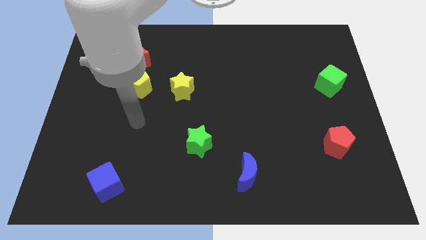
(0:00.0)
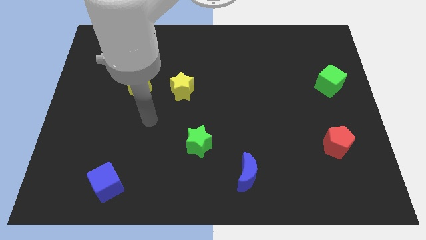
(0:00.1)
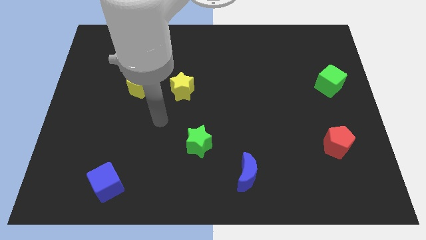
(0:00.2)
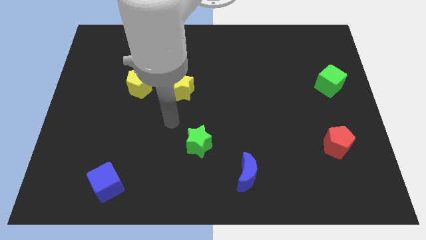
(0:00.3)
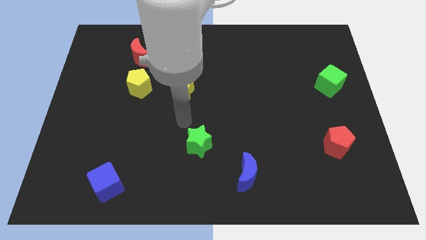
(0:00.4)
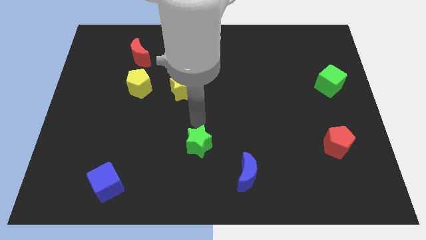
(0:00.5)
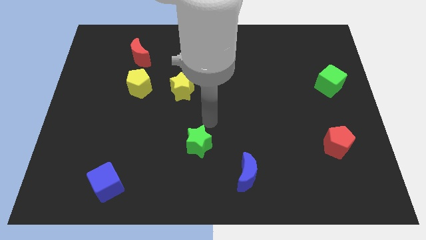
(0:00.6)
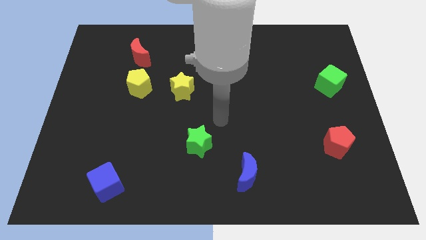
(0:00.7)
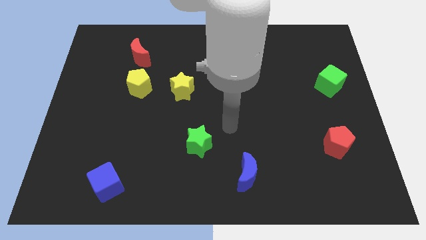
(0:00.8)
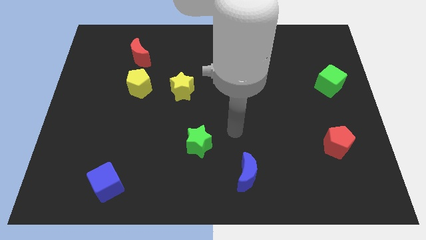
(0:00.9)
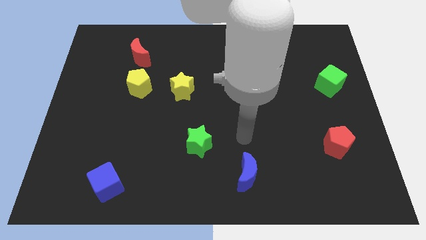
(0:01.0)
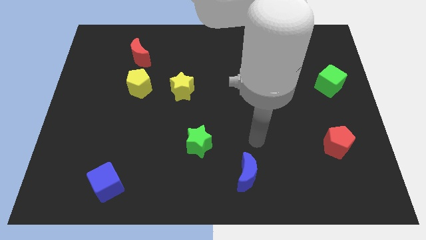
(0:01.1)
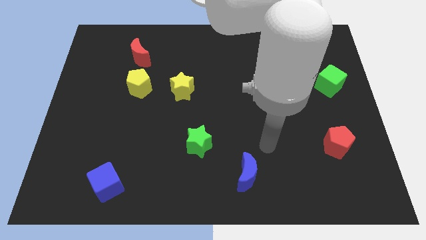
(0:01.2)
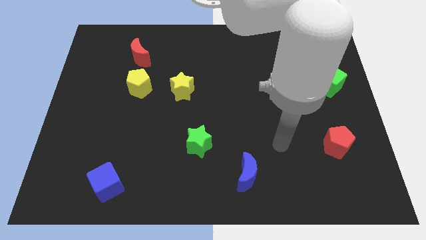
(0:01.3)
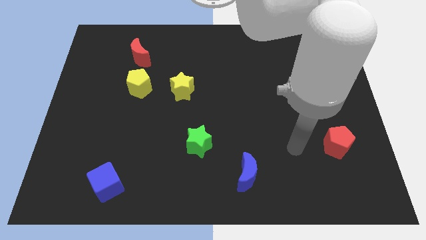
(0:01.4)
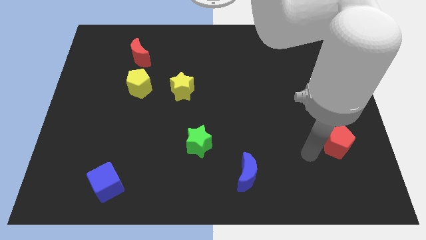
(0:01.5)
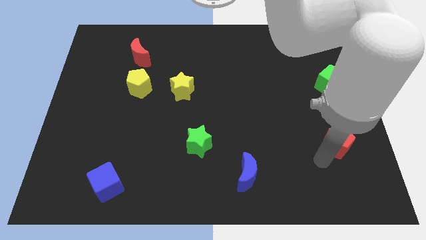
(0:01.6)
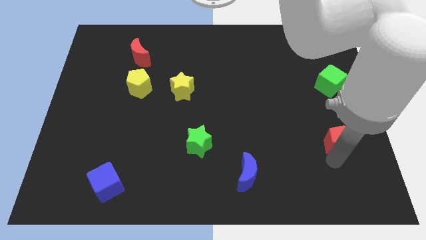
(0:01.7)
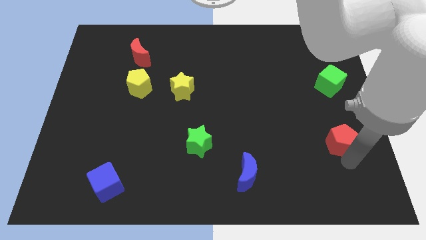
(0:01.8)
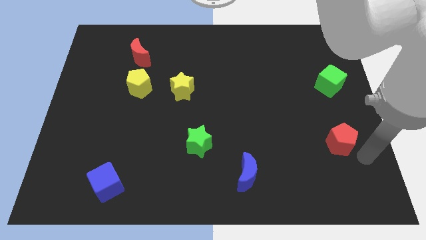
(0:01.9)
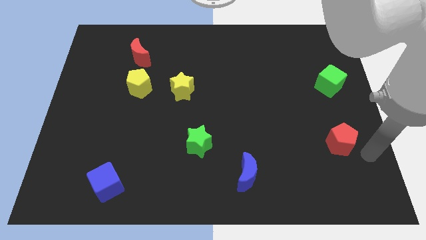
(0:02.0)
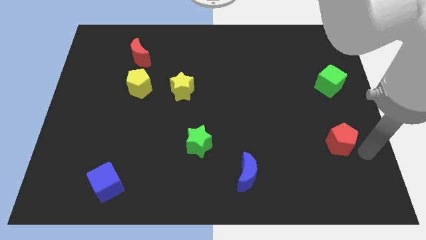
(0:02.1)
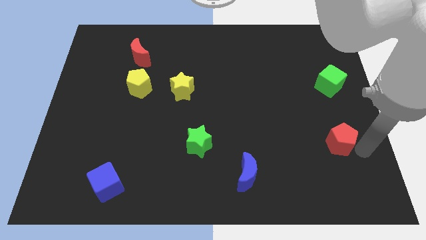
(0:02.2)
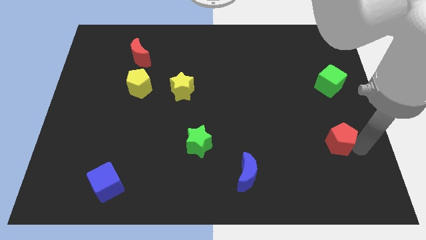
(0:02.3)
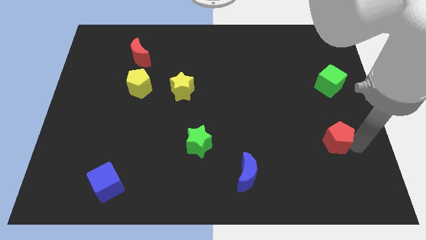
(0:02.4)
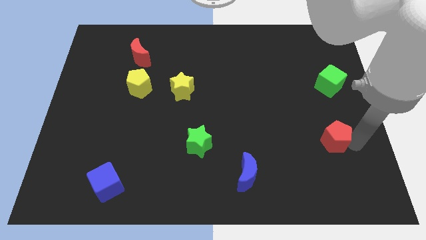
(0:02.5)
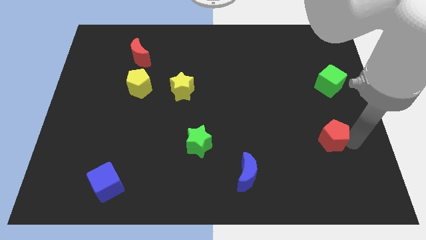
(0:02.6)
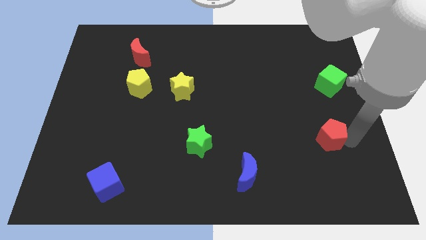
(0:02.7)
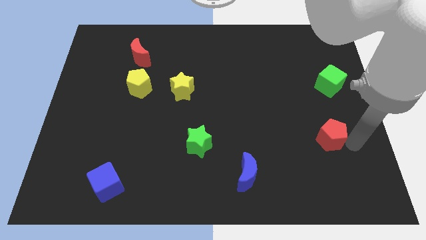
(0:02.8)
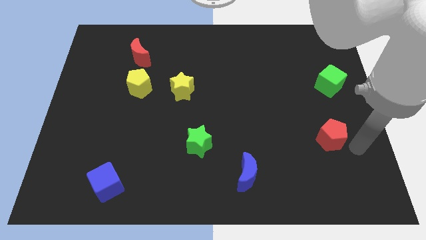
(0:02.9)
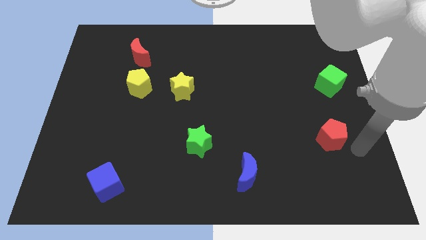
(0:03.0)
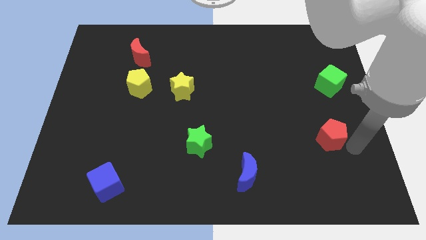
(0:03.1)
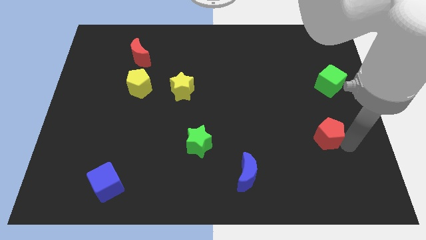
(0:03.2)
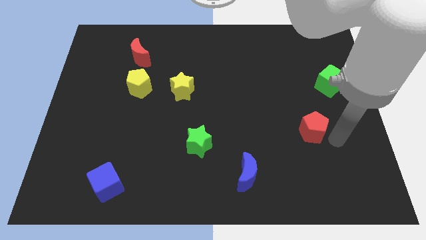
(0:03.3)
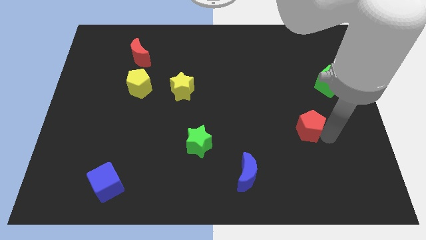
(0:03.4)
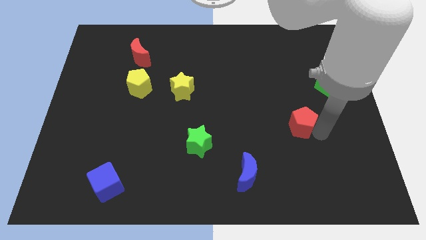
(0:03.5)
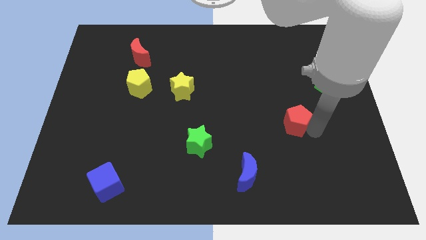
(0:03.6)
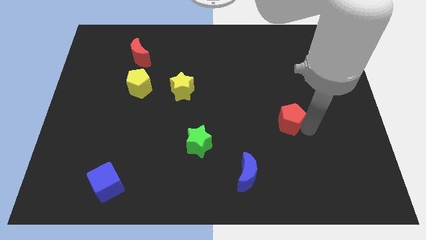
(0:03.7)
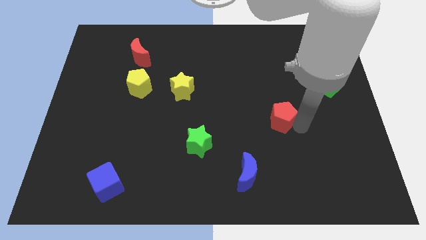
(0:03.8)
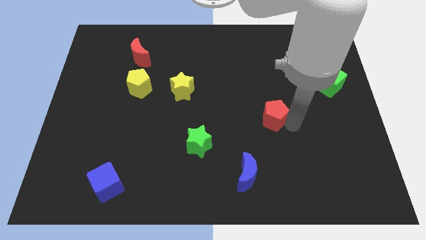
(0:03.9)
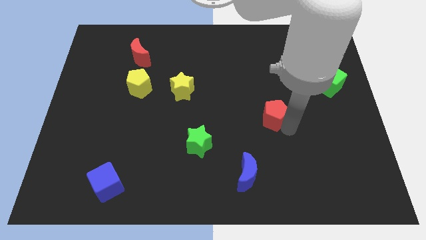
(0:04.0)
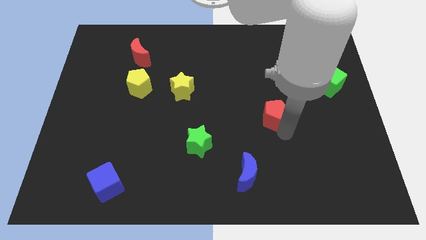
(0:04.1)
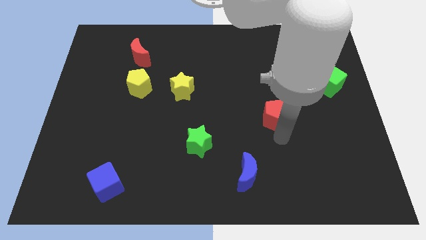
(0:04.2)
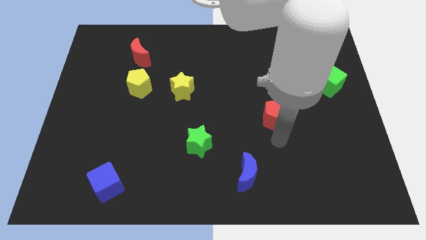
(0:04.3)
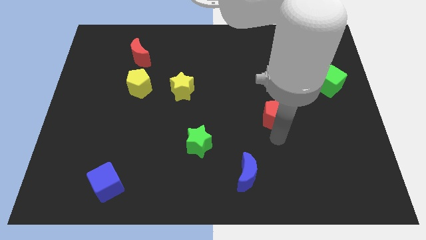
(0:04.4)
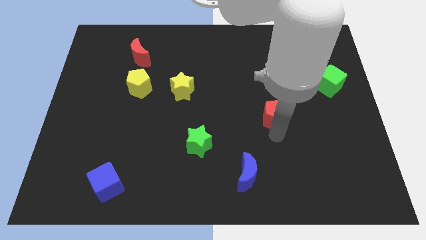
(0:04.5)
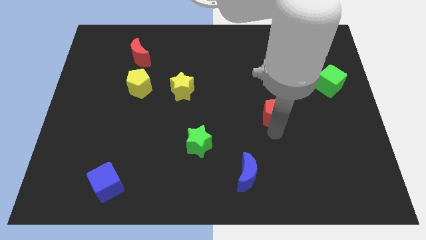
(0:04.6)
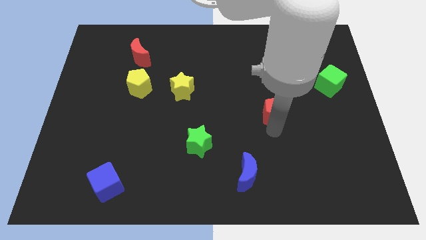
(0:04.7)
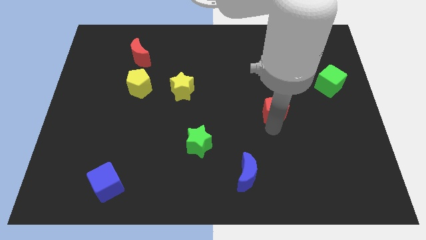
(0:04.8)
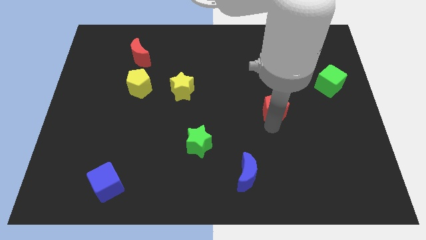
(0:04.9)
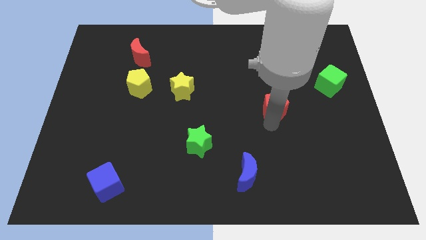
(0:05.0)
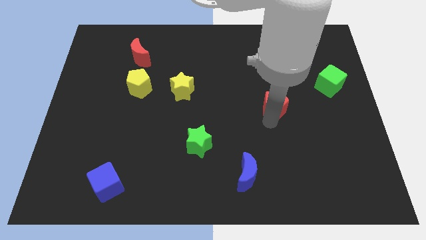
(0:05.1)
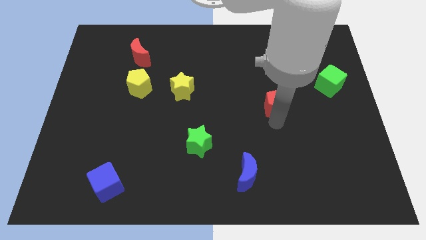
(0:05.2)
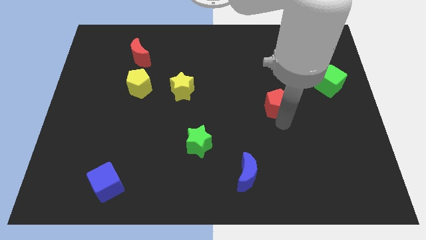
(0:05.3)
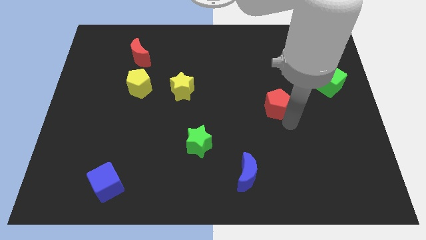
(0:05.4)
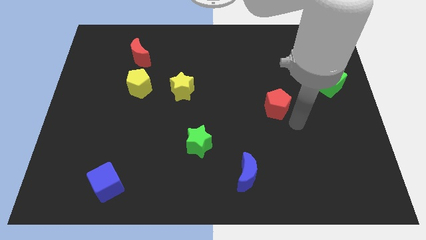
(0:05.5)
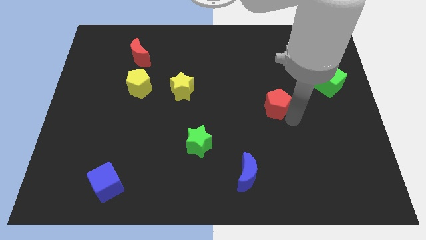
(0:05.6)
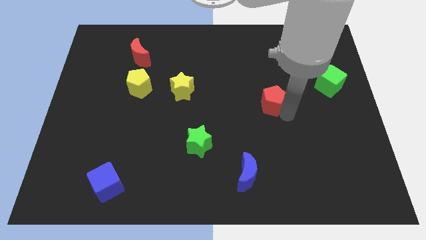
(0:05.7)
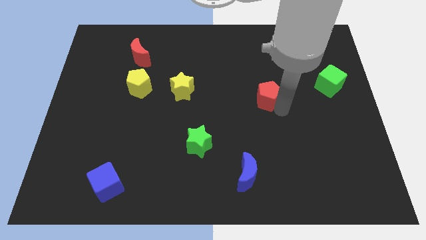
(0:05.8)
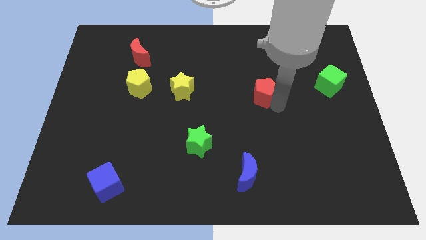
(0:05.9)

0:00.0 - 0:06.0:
push the red pentagon up and to the left

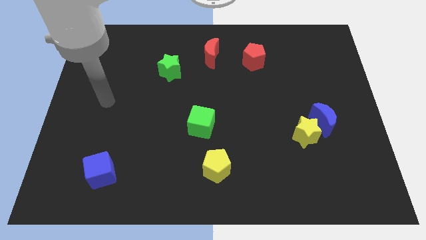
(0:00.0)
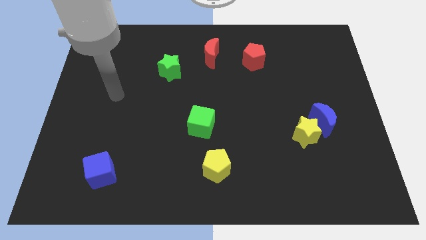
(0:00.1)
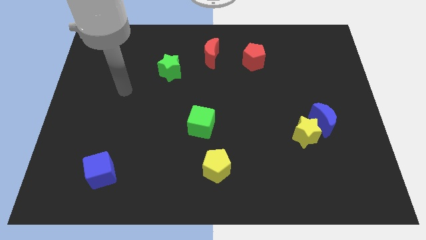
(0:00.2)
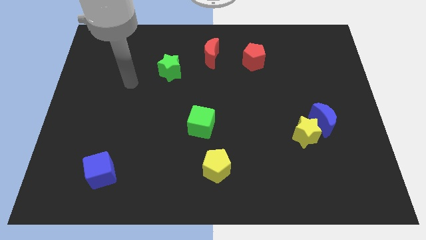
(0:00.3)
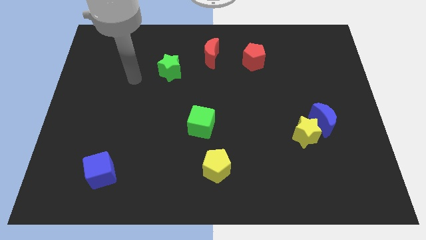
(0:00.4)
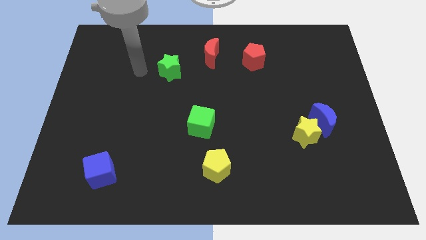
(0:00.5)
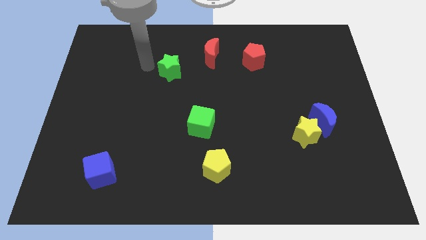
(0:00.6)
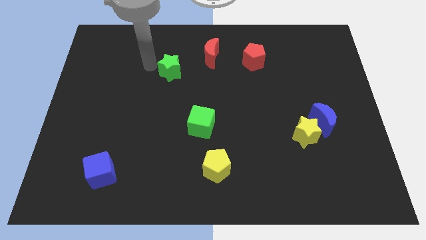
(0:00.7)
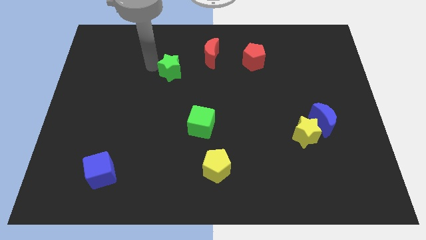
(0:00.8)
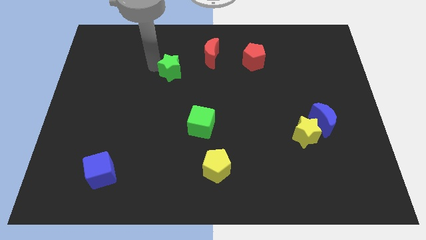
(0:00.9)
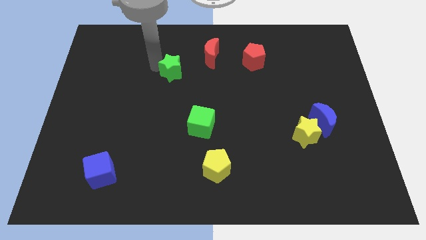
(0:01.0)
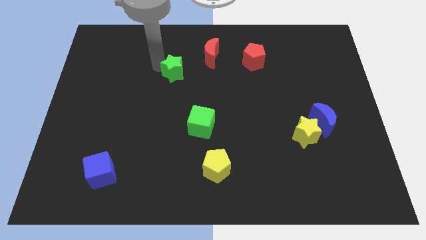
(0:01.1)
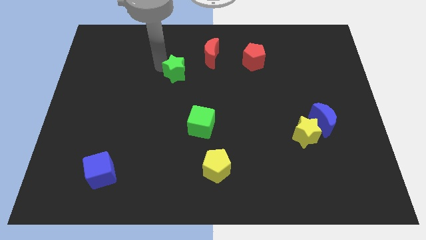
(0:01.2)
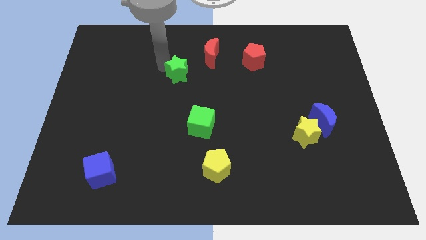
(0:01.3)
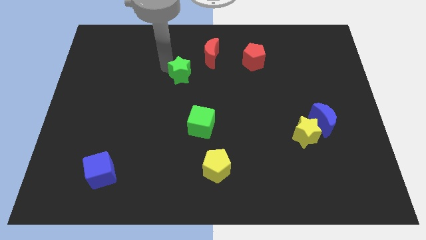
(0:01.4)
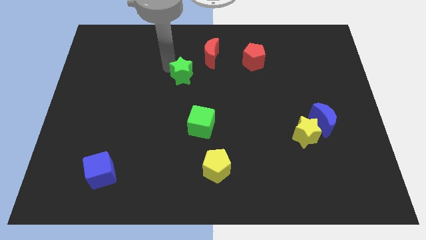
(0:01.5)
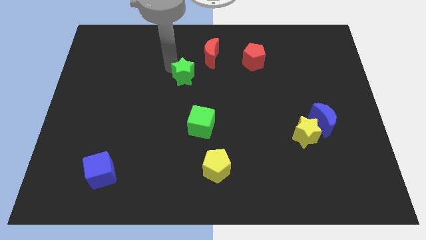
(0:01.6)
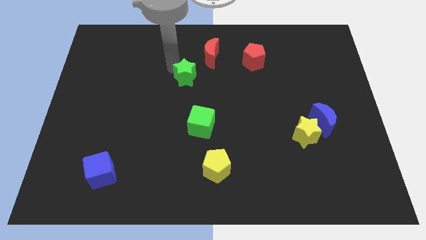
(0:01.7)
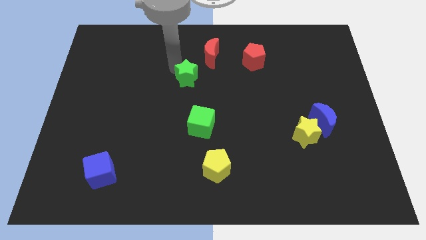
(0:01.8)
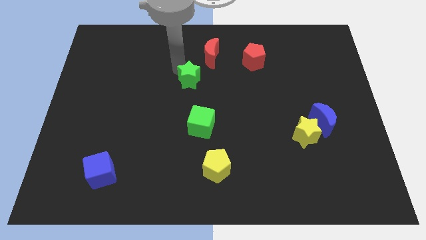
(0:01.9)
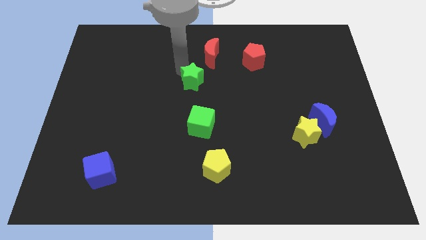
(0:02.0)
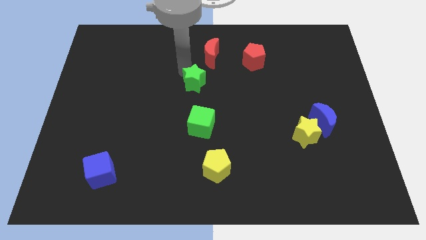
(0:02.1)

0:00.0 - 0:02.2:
slide the green star a little bit down and right
